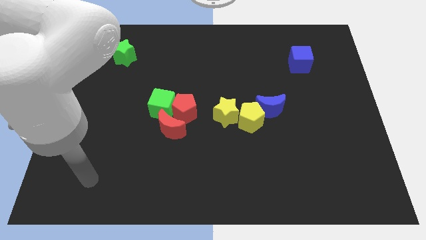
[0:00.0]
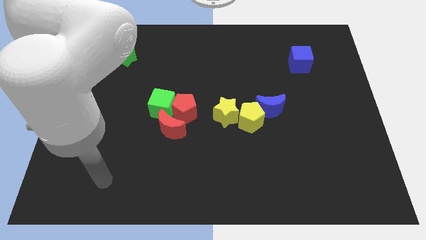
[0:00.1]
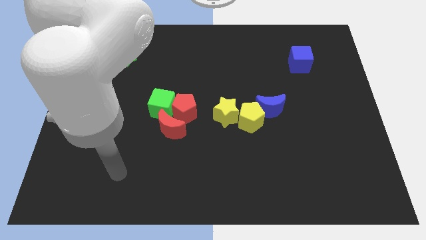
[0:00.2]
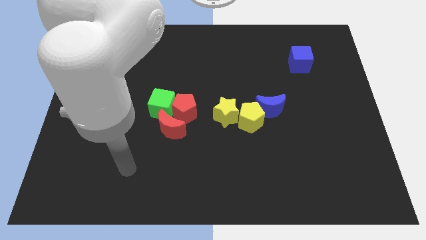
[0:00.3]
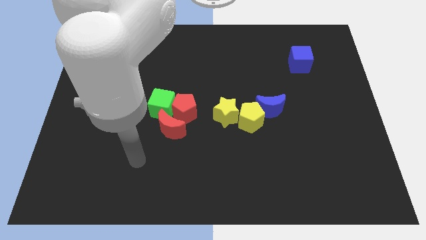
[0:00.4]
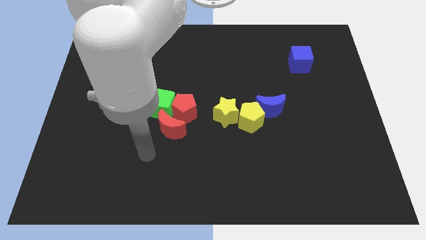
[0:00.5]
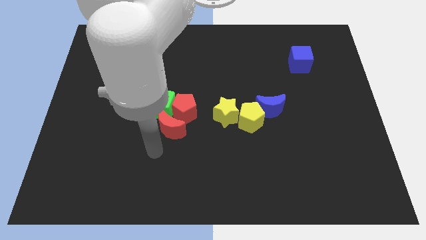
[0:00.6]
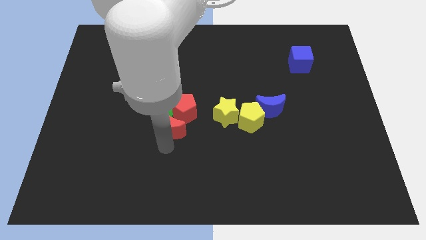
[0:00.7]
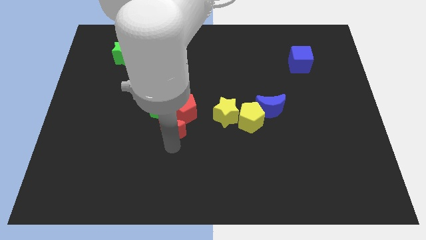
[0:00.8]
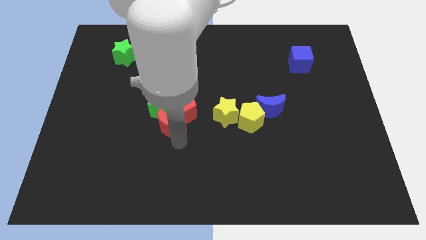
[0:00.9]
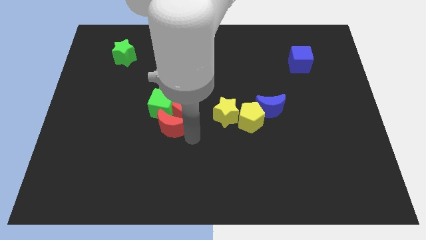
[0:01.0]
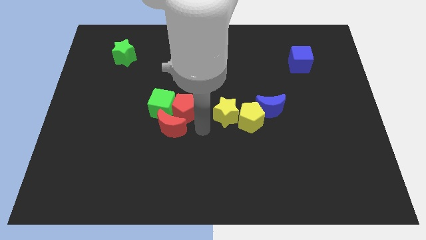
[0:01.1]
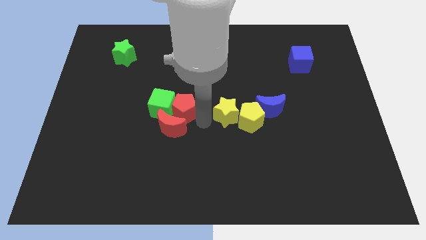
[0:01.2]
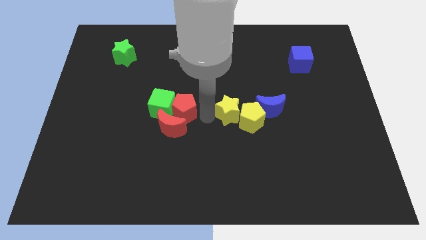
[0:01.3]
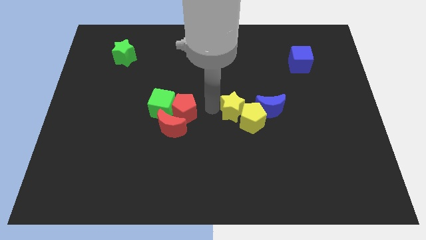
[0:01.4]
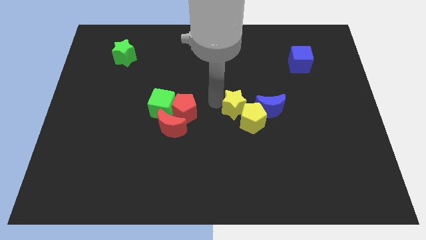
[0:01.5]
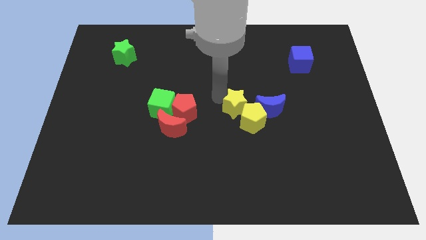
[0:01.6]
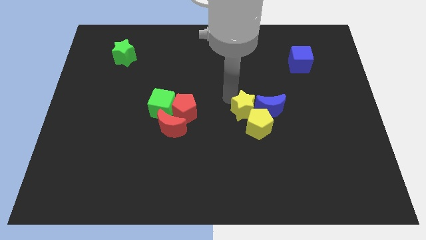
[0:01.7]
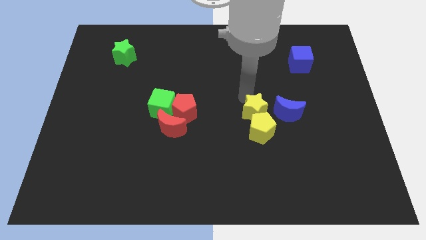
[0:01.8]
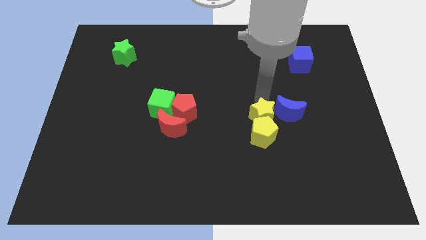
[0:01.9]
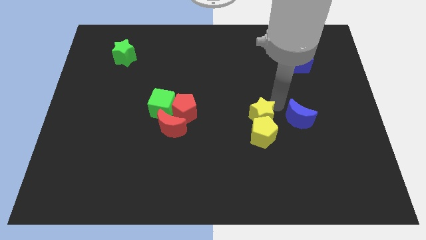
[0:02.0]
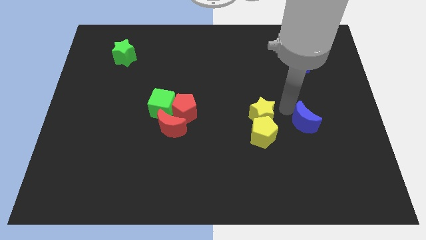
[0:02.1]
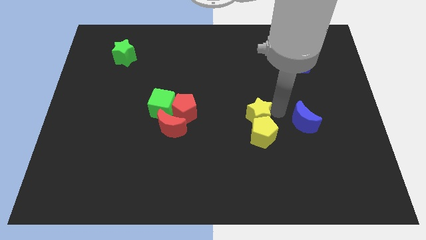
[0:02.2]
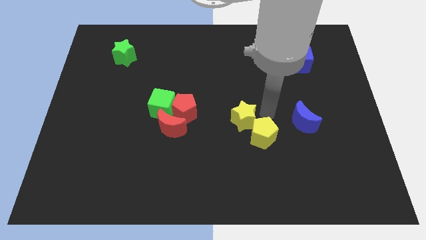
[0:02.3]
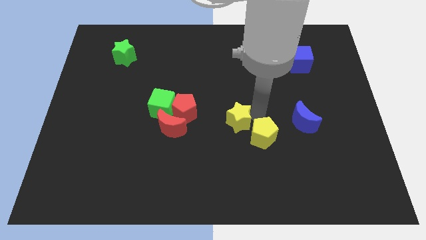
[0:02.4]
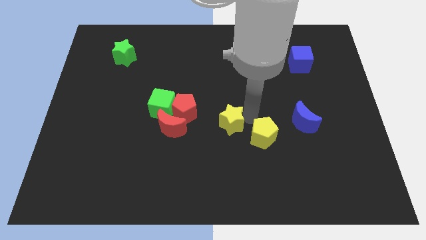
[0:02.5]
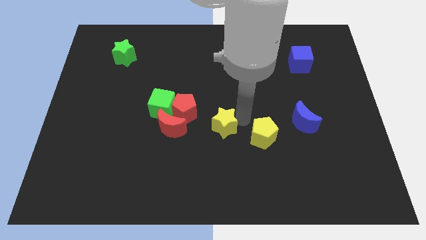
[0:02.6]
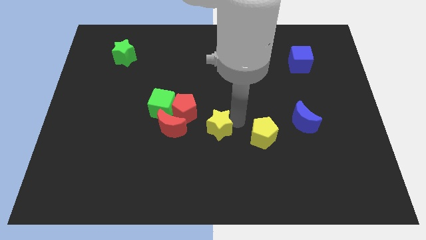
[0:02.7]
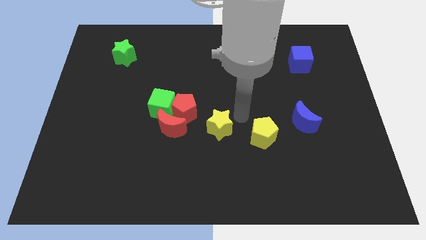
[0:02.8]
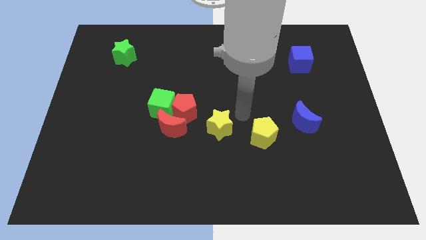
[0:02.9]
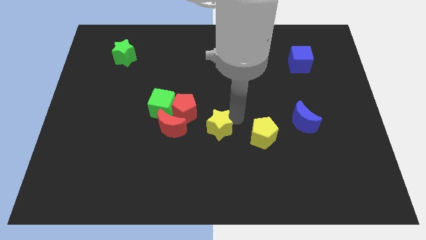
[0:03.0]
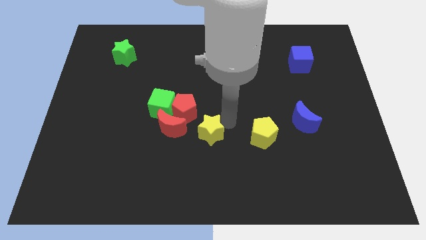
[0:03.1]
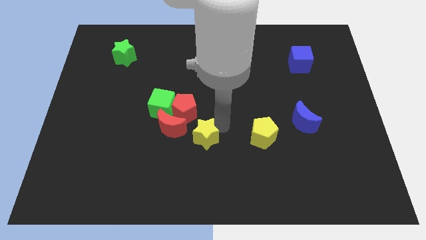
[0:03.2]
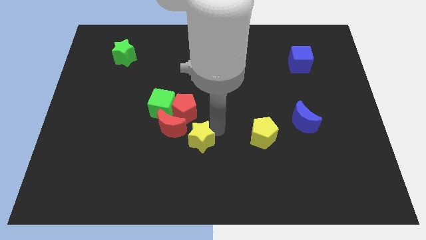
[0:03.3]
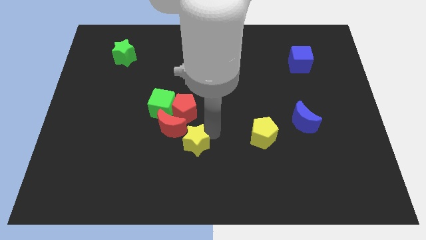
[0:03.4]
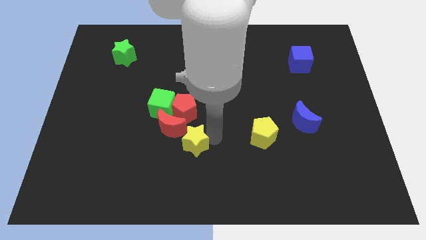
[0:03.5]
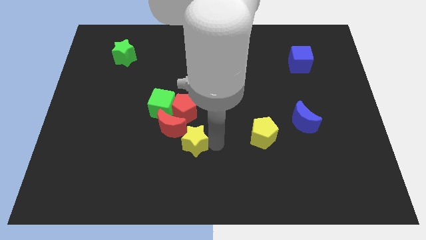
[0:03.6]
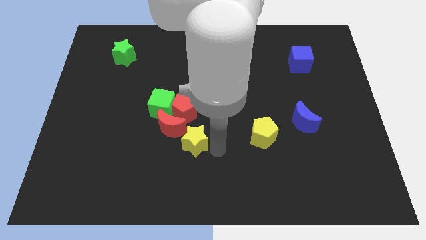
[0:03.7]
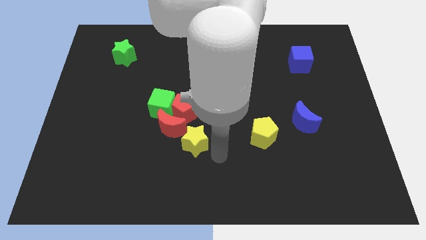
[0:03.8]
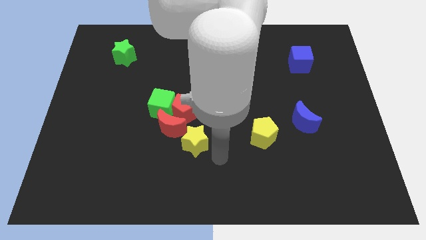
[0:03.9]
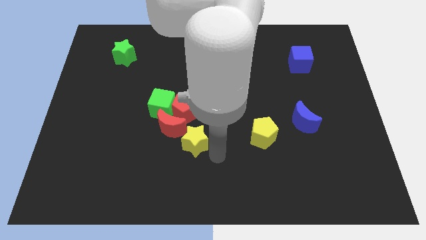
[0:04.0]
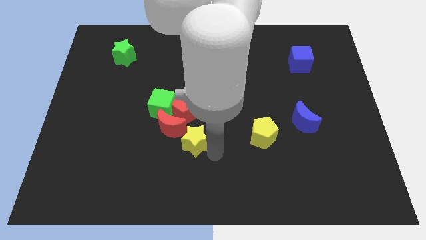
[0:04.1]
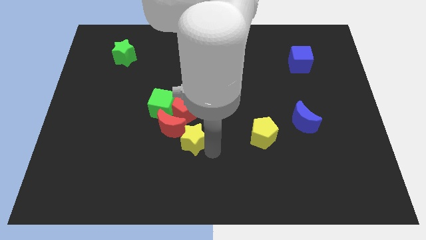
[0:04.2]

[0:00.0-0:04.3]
push the yellow star close to the red moon

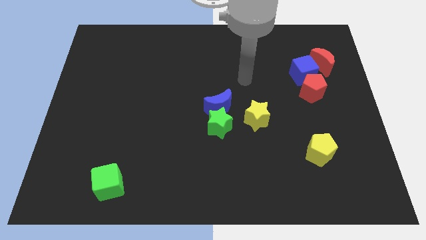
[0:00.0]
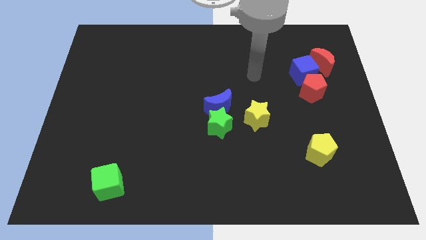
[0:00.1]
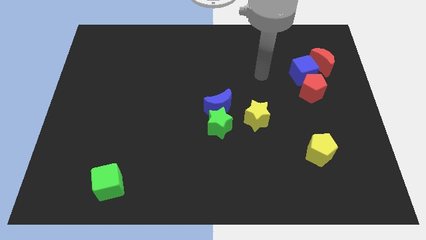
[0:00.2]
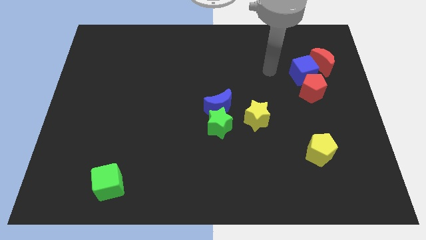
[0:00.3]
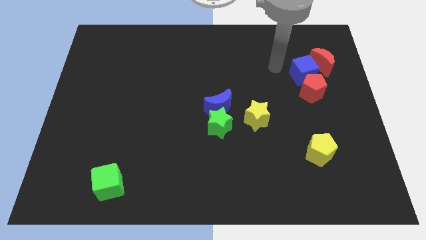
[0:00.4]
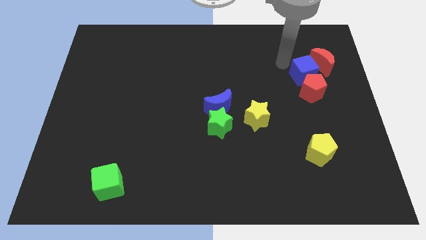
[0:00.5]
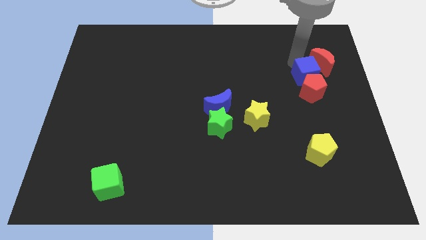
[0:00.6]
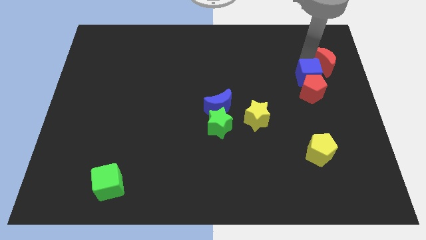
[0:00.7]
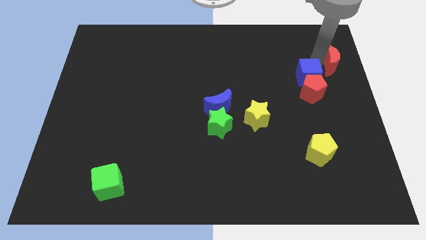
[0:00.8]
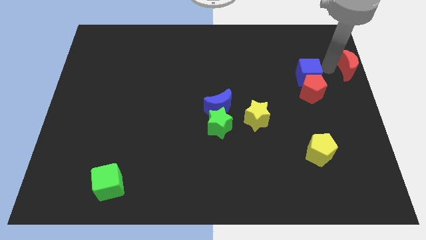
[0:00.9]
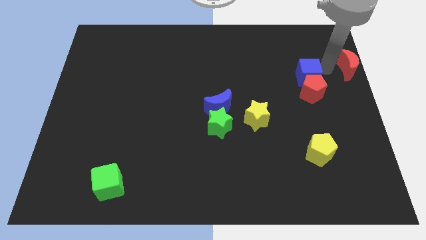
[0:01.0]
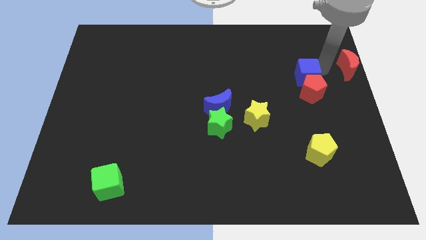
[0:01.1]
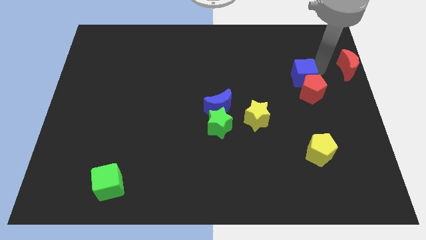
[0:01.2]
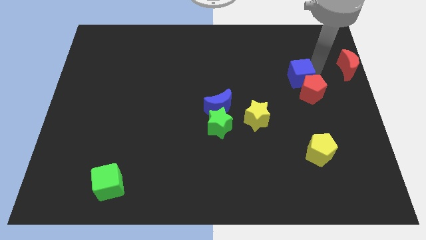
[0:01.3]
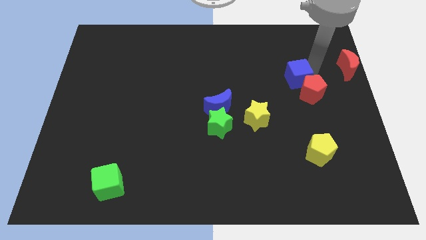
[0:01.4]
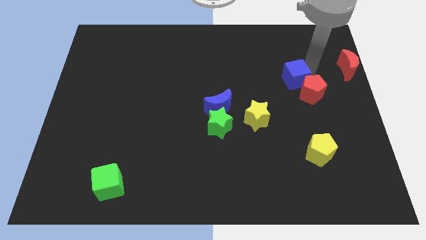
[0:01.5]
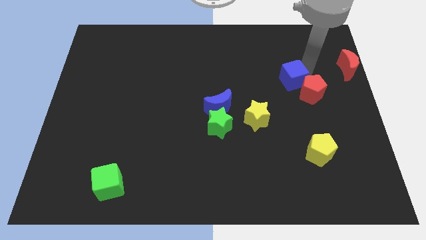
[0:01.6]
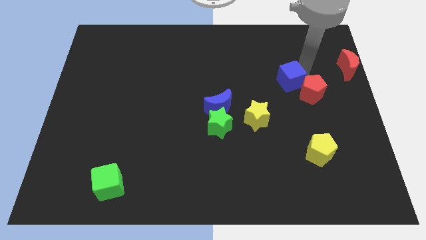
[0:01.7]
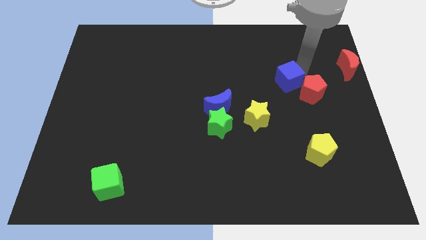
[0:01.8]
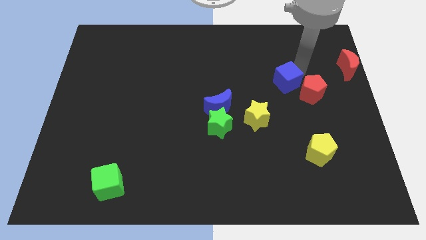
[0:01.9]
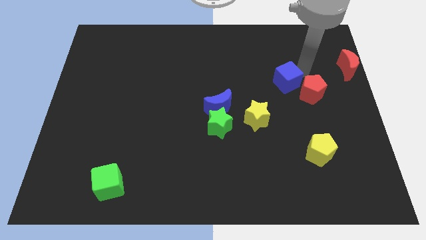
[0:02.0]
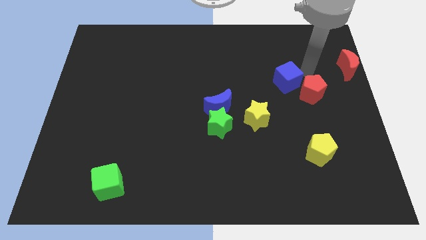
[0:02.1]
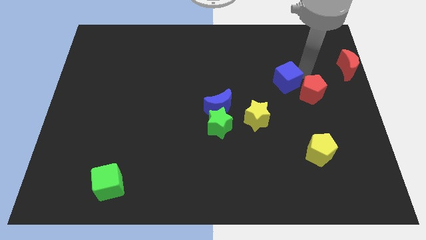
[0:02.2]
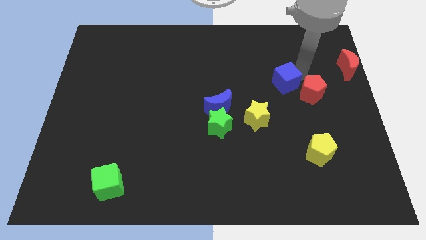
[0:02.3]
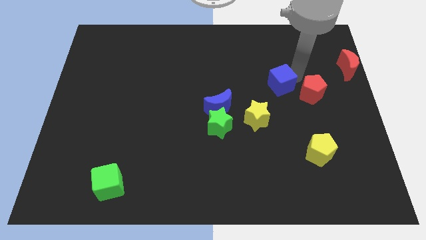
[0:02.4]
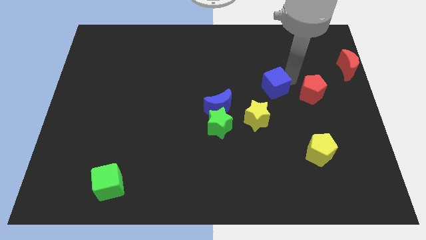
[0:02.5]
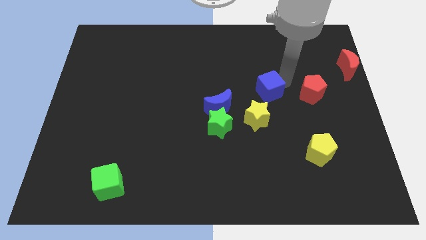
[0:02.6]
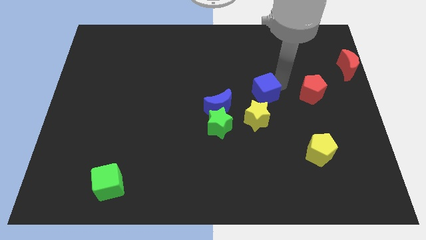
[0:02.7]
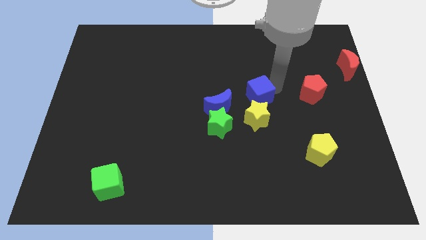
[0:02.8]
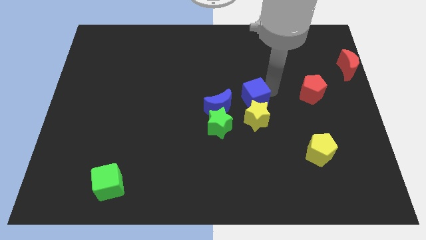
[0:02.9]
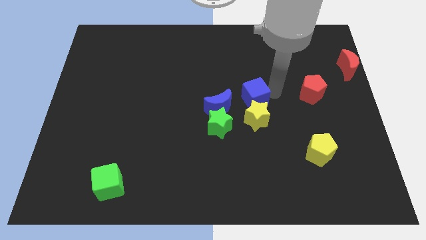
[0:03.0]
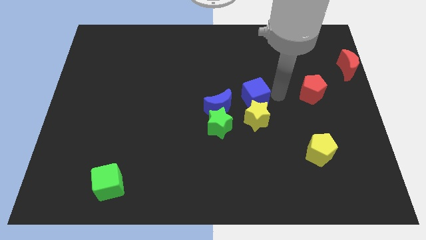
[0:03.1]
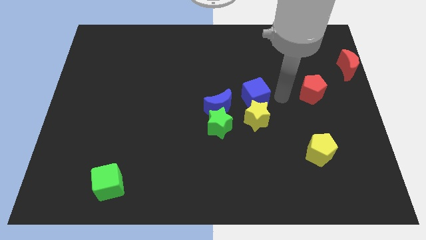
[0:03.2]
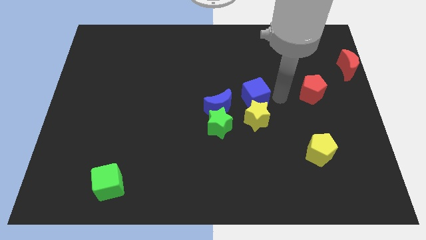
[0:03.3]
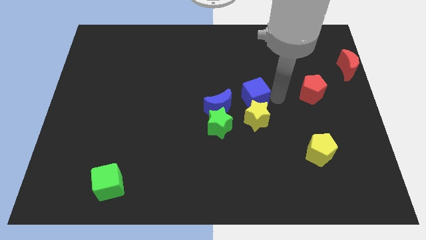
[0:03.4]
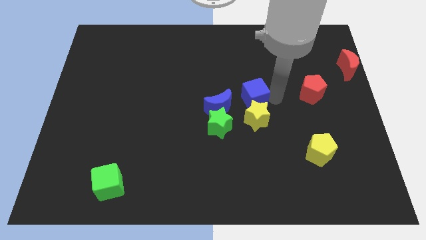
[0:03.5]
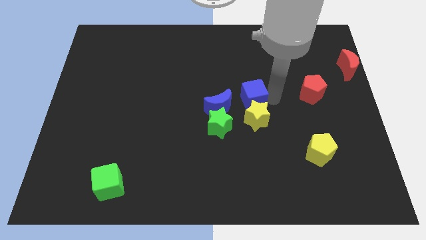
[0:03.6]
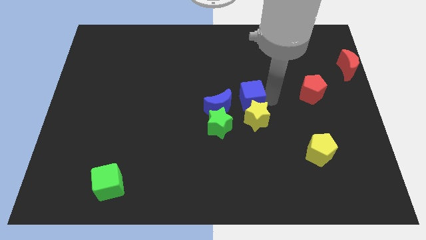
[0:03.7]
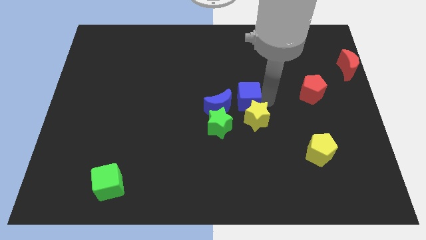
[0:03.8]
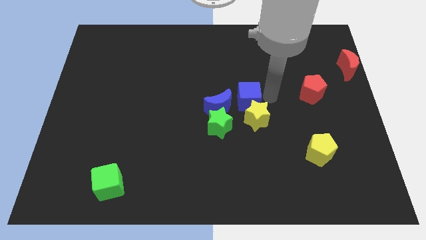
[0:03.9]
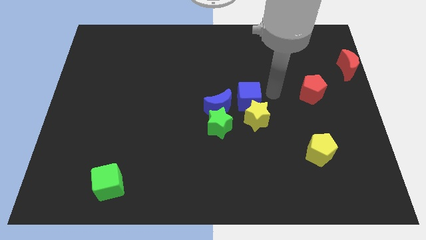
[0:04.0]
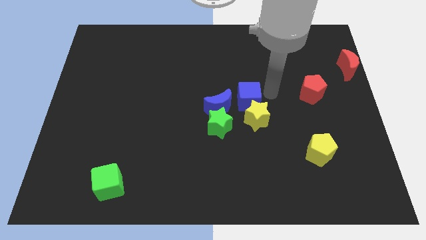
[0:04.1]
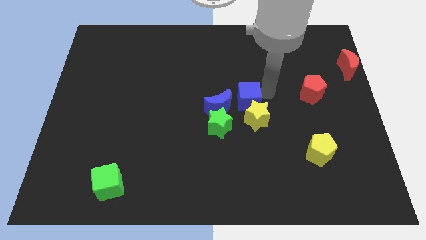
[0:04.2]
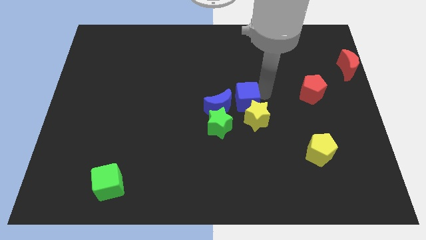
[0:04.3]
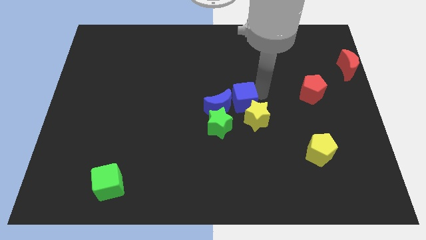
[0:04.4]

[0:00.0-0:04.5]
move the blue cube to the blue moon
